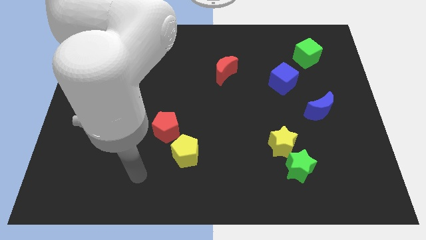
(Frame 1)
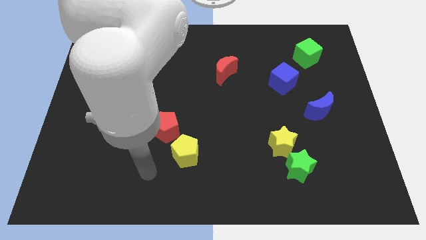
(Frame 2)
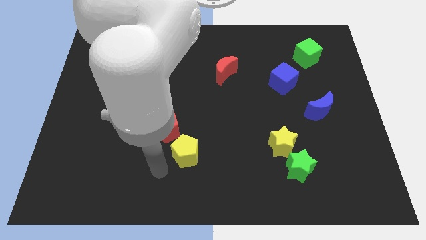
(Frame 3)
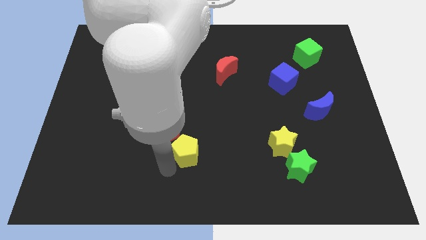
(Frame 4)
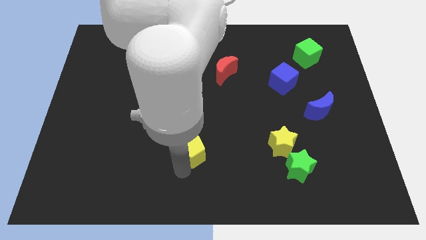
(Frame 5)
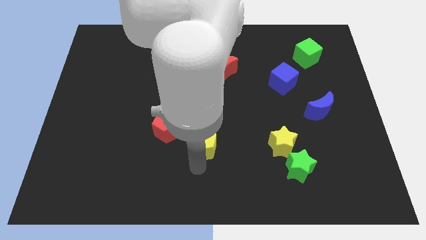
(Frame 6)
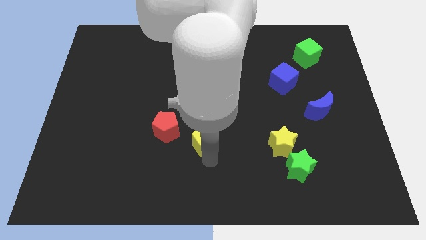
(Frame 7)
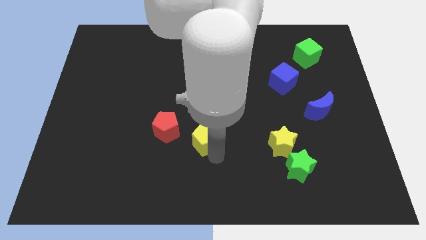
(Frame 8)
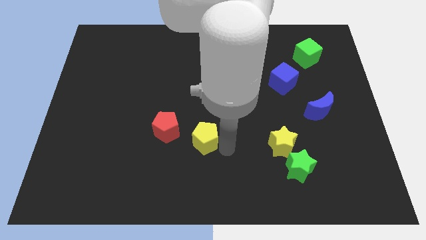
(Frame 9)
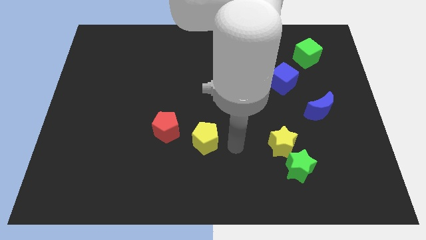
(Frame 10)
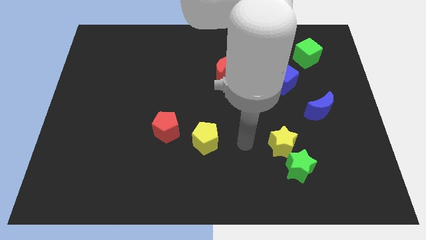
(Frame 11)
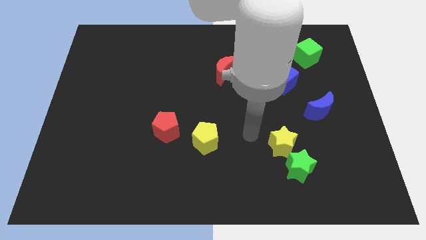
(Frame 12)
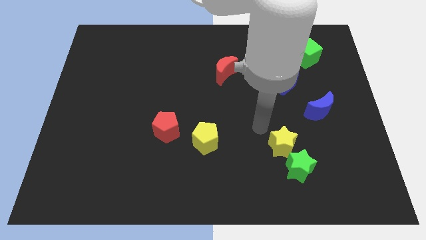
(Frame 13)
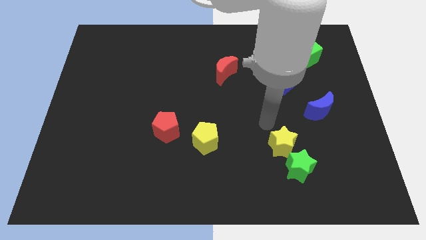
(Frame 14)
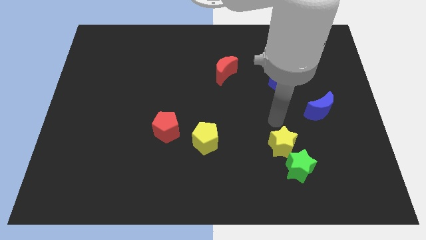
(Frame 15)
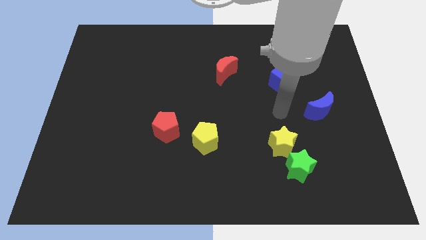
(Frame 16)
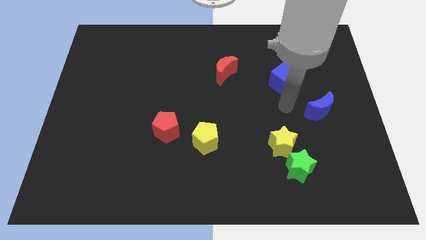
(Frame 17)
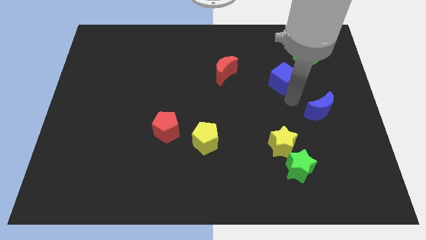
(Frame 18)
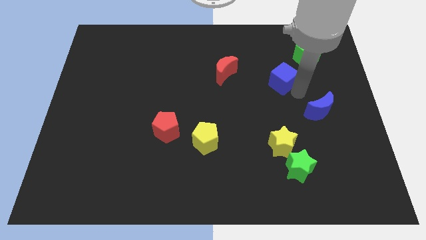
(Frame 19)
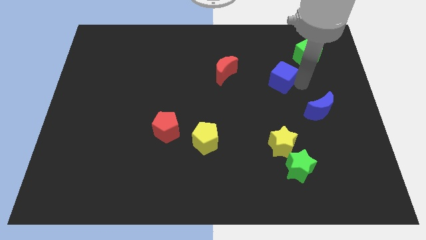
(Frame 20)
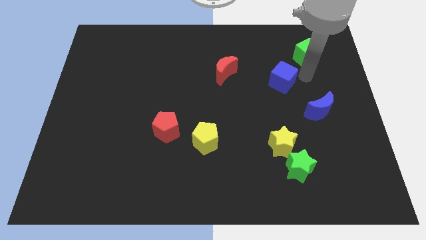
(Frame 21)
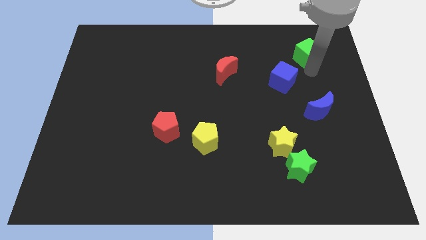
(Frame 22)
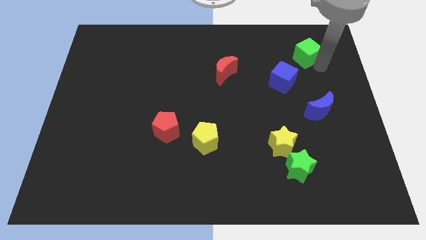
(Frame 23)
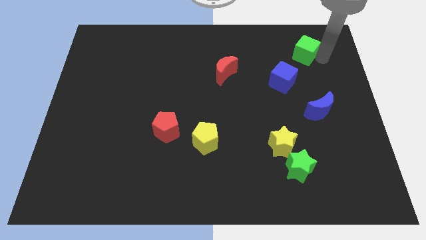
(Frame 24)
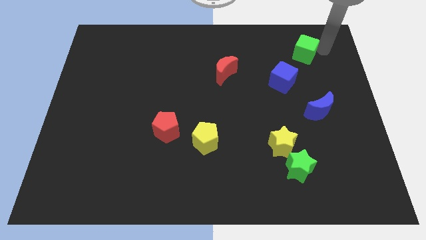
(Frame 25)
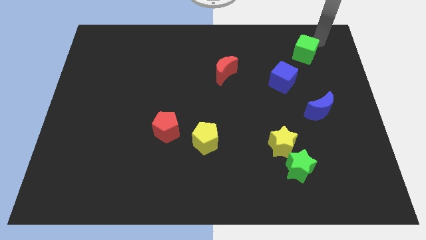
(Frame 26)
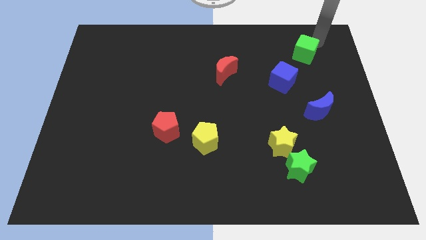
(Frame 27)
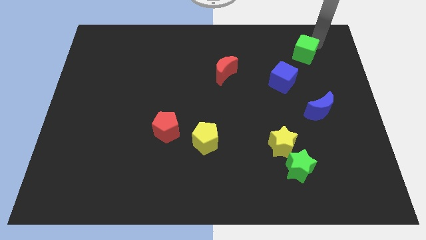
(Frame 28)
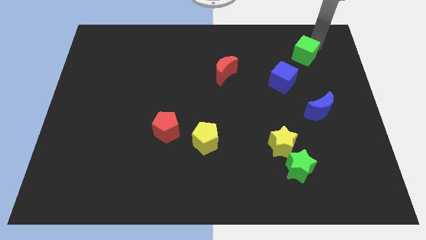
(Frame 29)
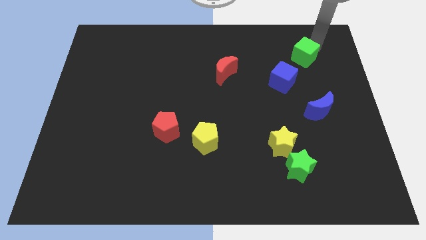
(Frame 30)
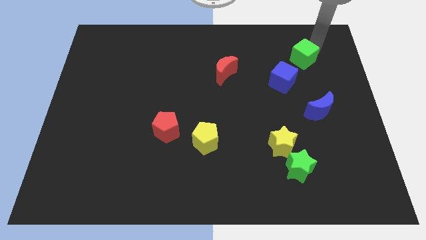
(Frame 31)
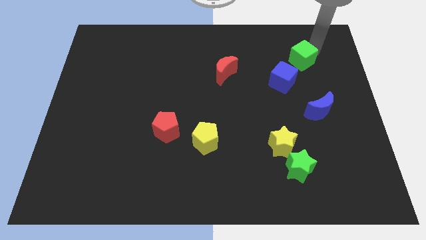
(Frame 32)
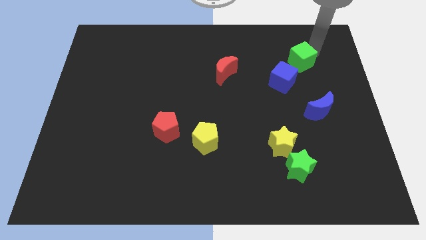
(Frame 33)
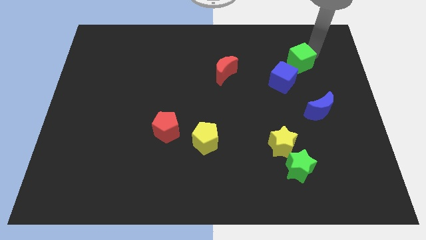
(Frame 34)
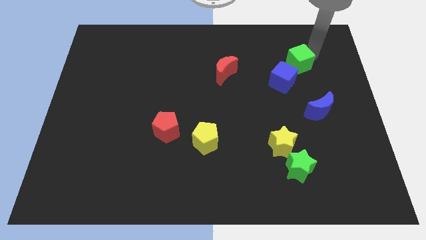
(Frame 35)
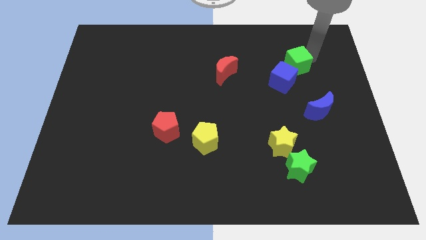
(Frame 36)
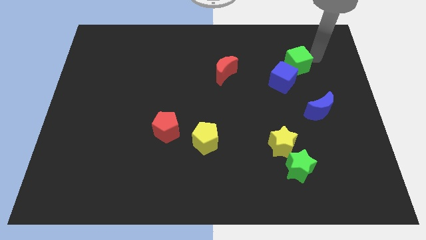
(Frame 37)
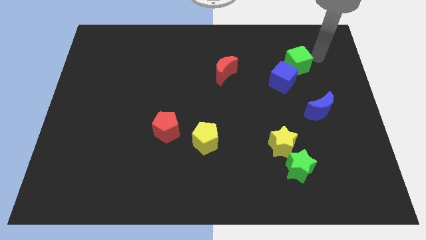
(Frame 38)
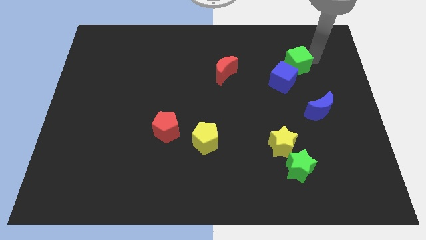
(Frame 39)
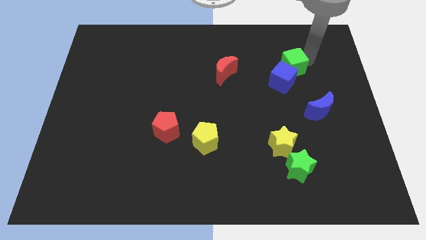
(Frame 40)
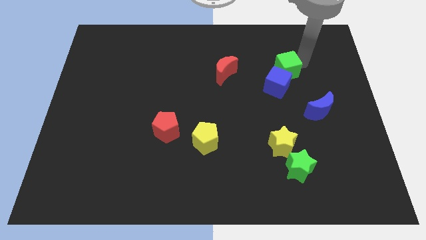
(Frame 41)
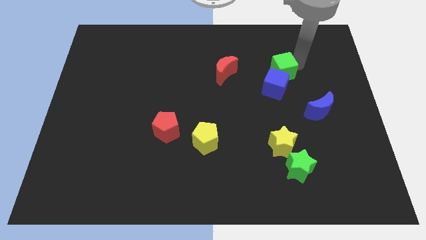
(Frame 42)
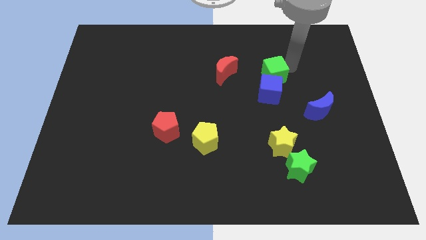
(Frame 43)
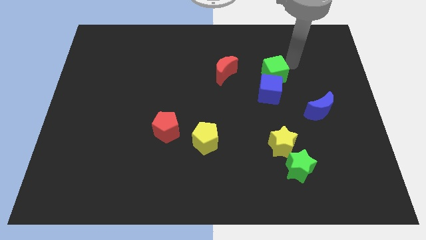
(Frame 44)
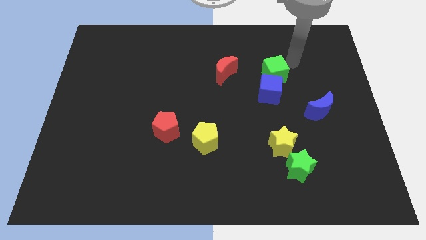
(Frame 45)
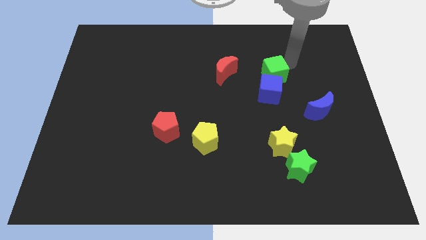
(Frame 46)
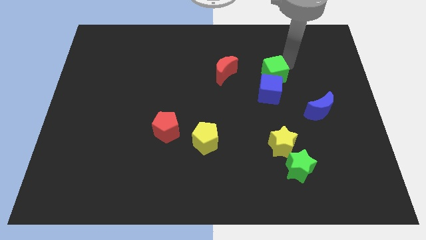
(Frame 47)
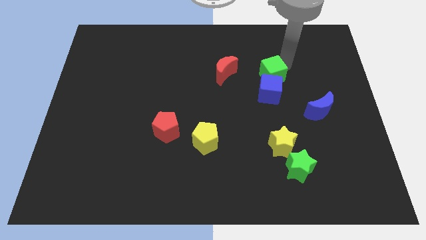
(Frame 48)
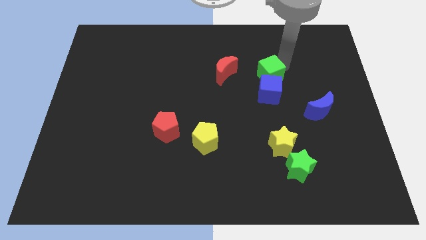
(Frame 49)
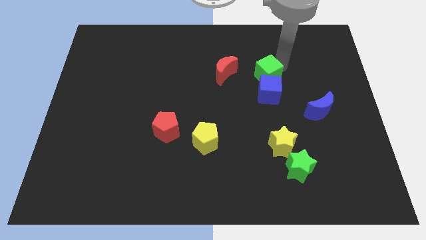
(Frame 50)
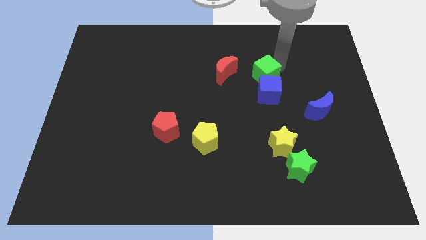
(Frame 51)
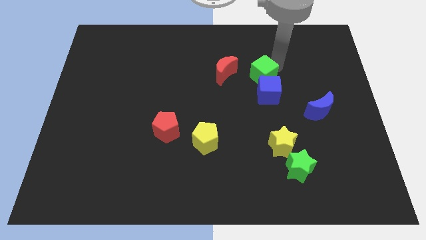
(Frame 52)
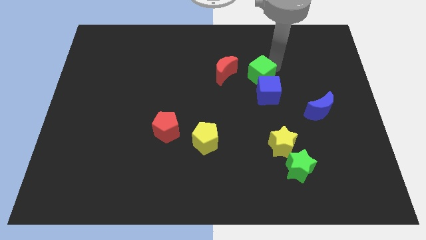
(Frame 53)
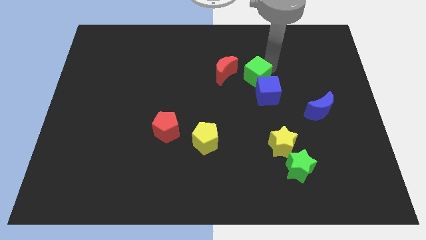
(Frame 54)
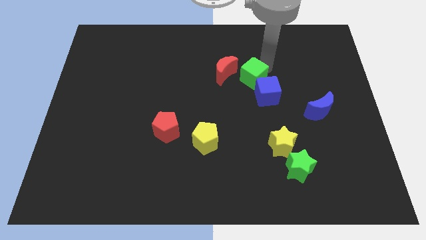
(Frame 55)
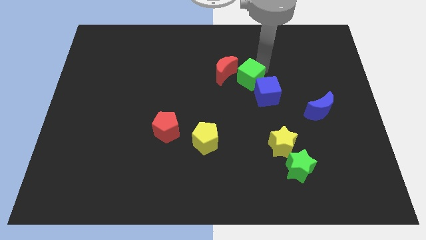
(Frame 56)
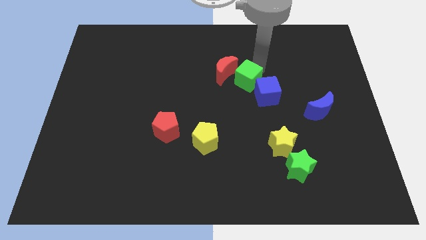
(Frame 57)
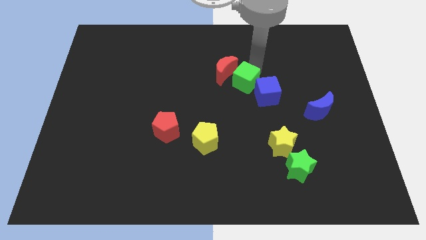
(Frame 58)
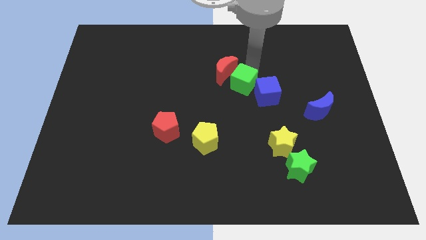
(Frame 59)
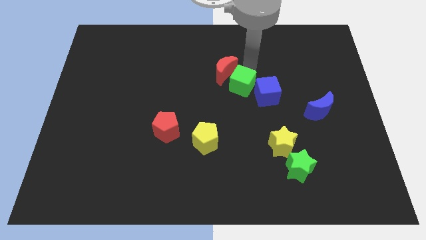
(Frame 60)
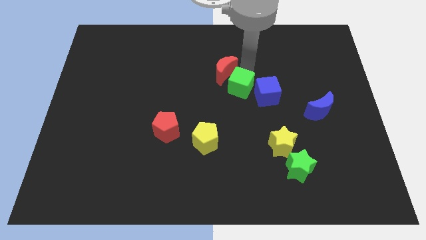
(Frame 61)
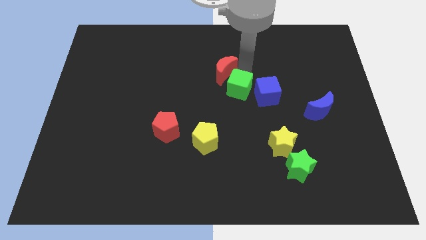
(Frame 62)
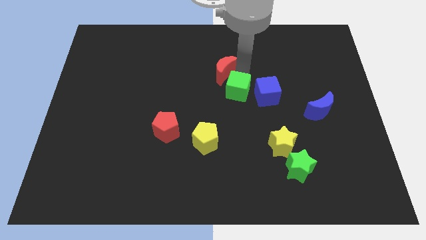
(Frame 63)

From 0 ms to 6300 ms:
move the green cube diagonally down and to the left

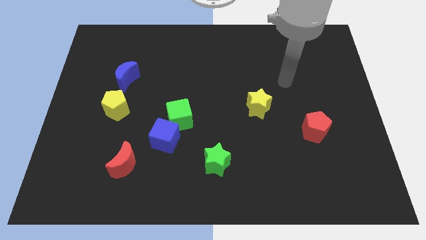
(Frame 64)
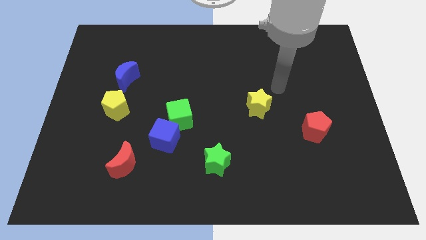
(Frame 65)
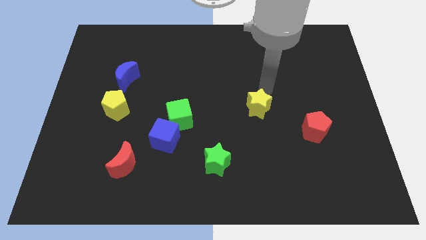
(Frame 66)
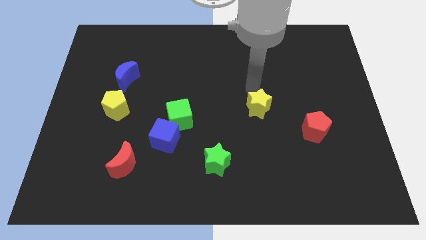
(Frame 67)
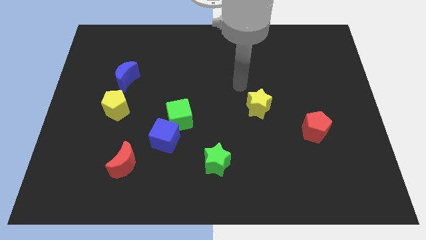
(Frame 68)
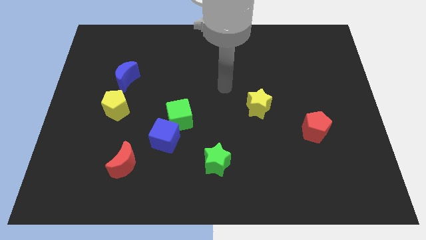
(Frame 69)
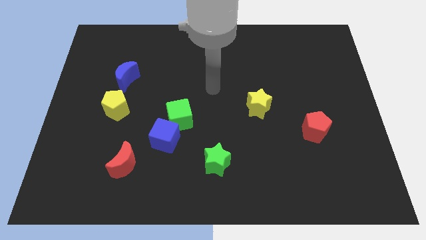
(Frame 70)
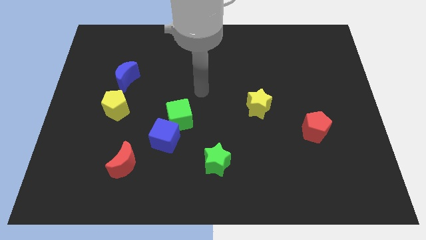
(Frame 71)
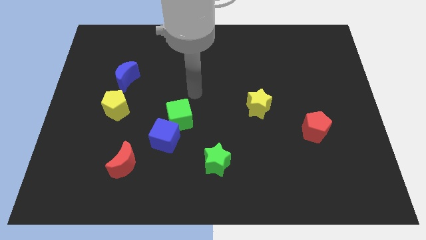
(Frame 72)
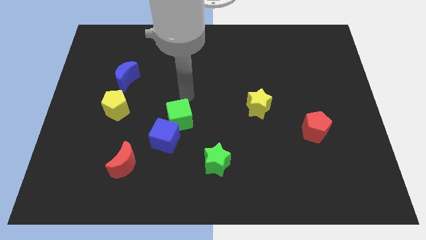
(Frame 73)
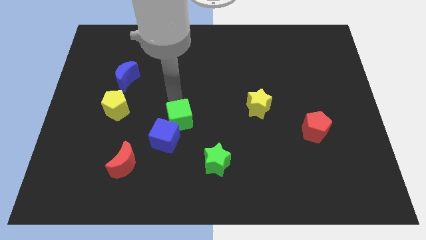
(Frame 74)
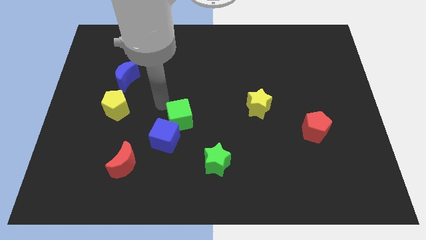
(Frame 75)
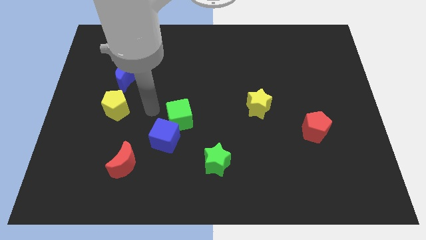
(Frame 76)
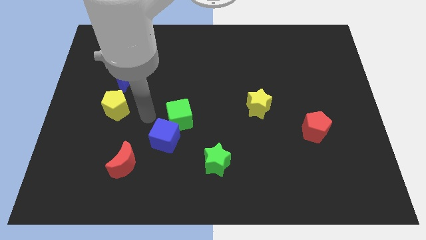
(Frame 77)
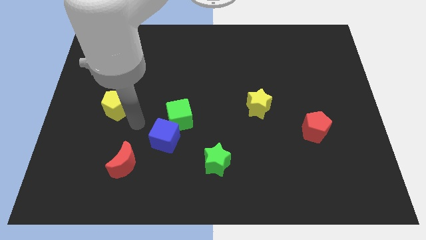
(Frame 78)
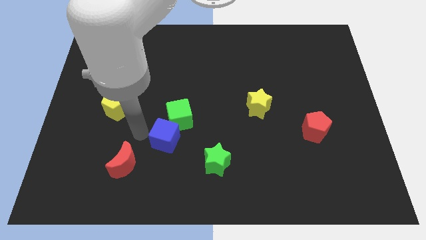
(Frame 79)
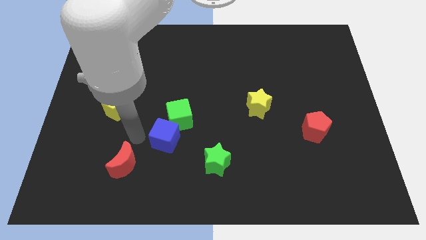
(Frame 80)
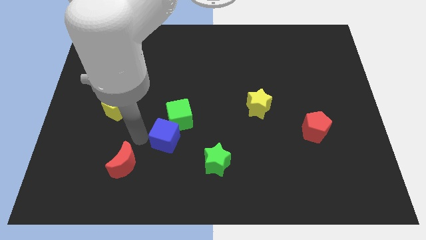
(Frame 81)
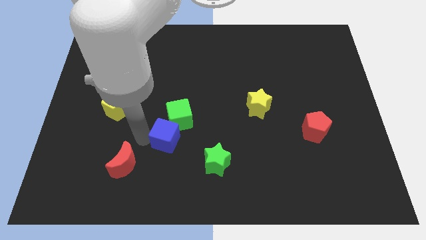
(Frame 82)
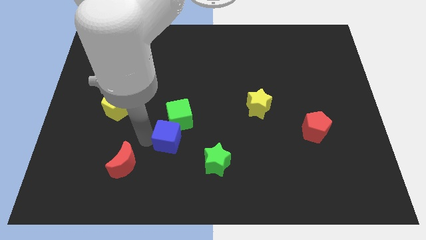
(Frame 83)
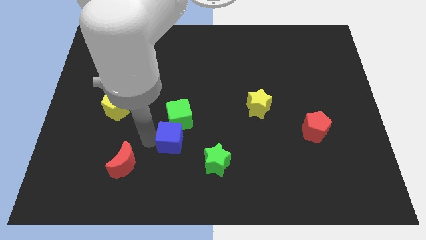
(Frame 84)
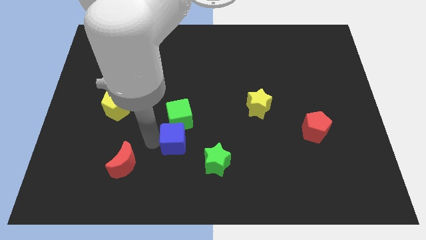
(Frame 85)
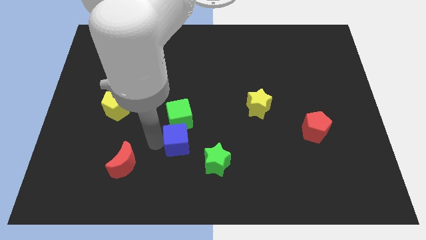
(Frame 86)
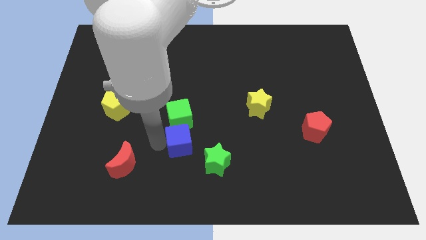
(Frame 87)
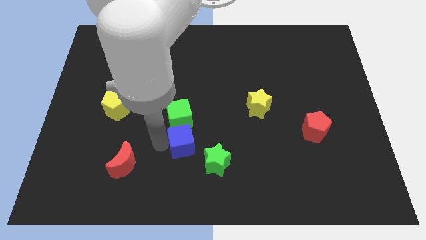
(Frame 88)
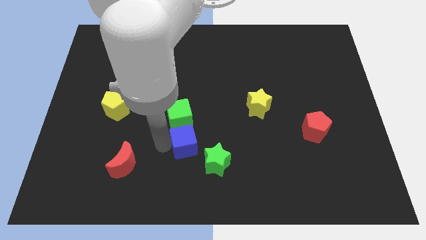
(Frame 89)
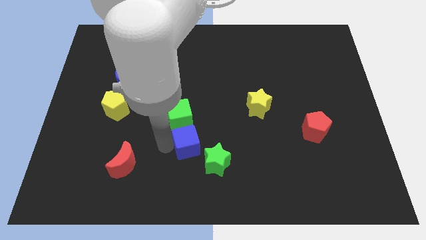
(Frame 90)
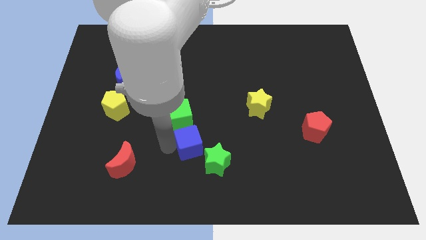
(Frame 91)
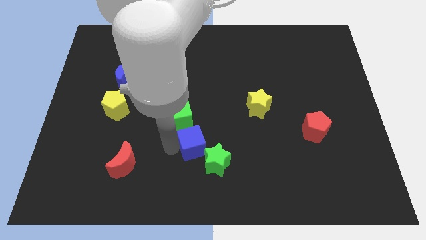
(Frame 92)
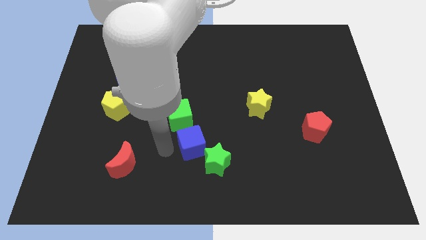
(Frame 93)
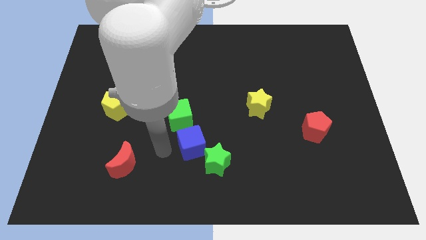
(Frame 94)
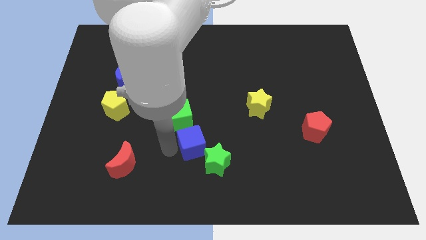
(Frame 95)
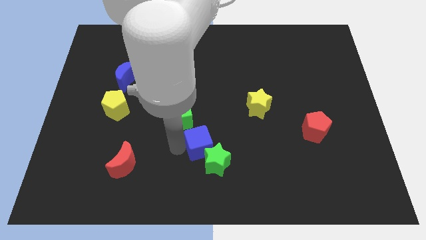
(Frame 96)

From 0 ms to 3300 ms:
slightly slide the blue cube right
